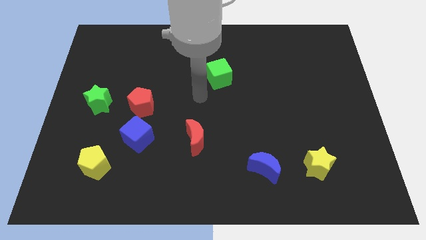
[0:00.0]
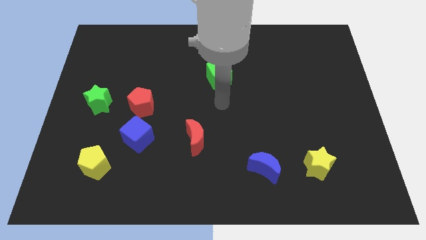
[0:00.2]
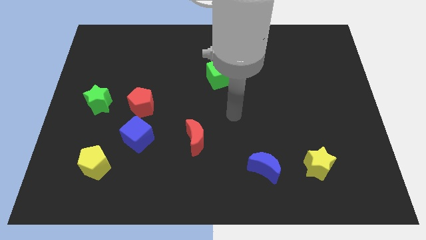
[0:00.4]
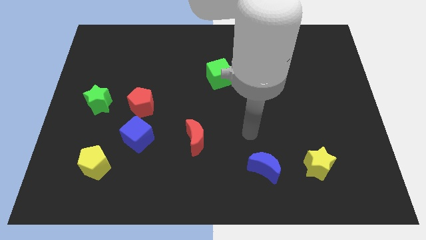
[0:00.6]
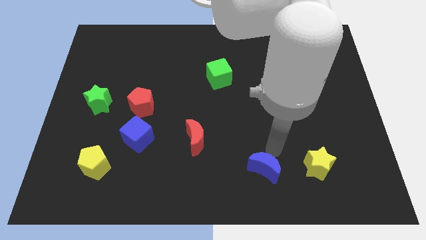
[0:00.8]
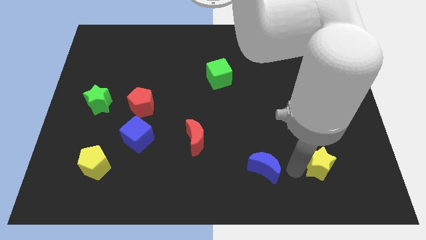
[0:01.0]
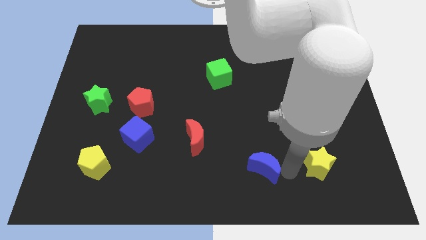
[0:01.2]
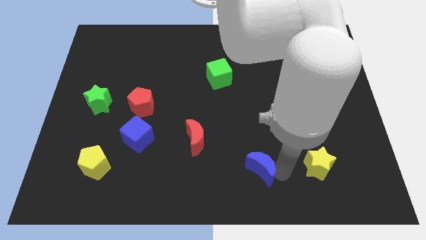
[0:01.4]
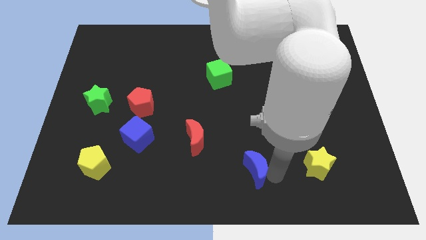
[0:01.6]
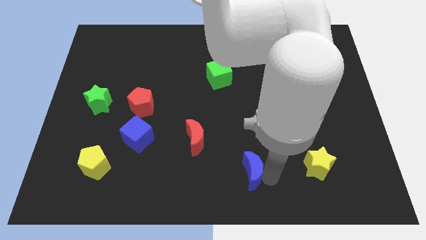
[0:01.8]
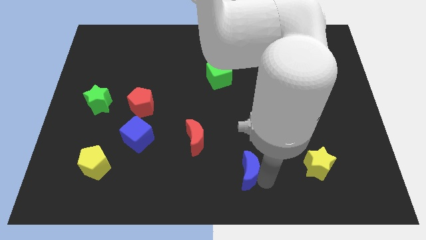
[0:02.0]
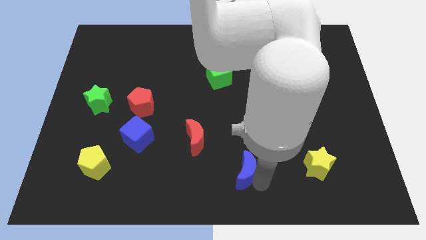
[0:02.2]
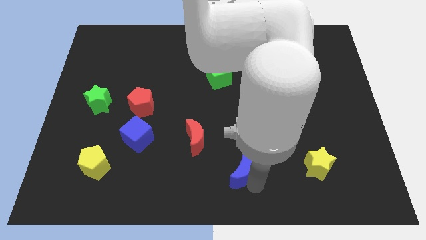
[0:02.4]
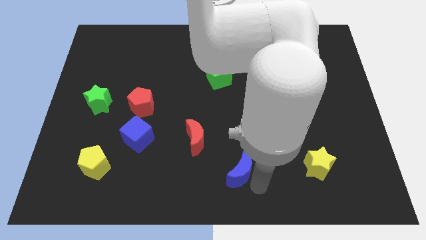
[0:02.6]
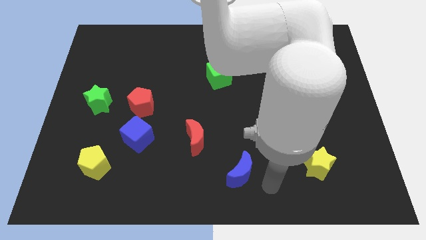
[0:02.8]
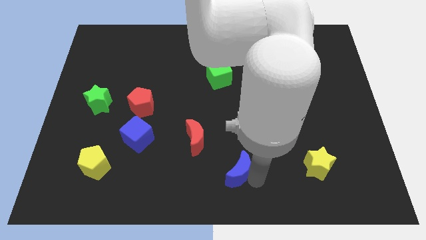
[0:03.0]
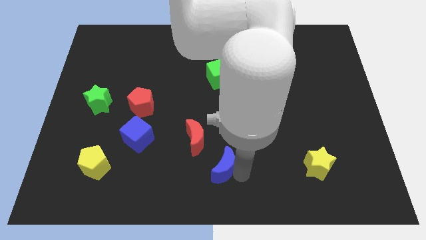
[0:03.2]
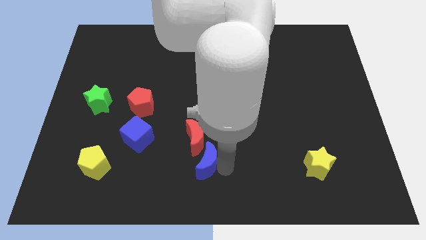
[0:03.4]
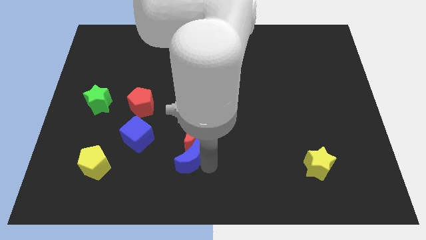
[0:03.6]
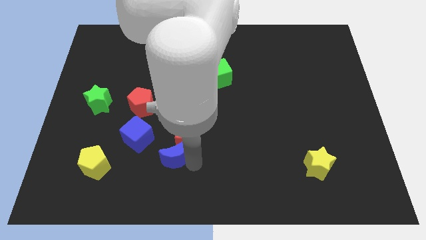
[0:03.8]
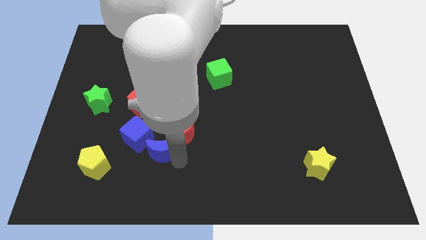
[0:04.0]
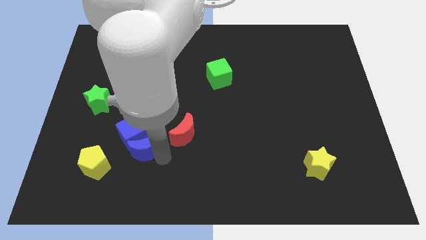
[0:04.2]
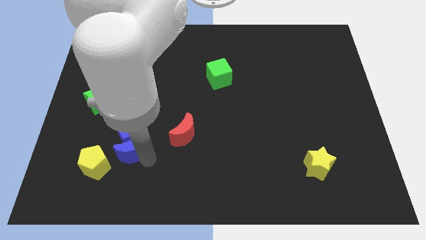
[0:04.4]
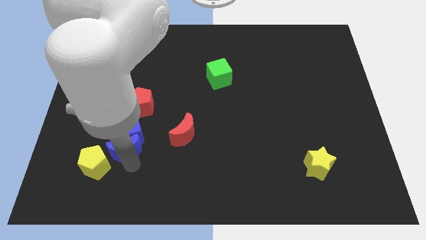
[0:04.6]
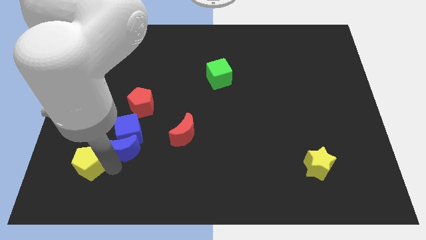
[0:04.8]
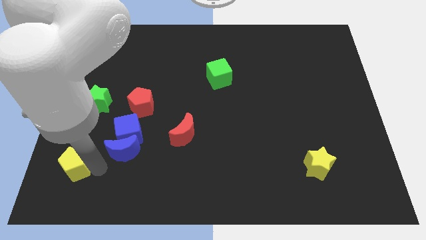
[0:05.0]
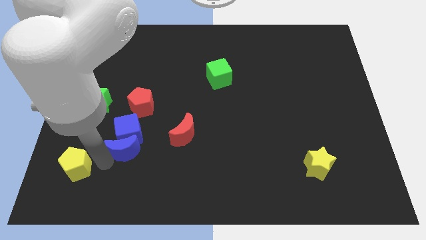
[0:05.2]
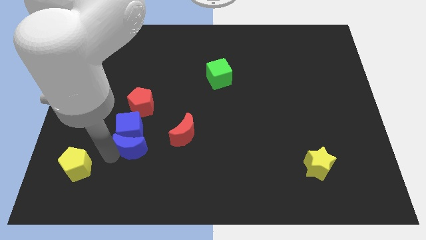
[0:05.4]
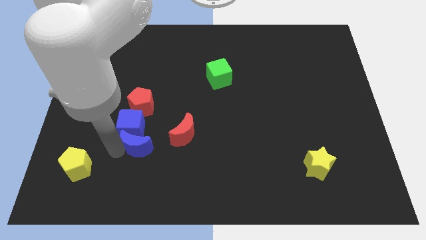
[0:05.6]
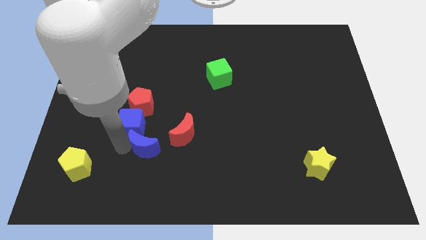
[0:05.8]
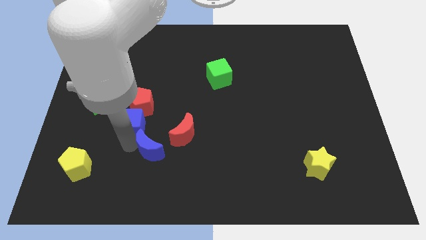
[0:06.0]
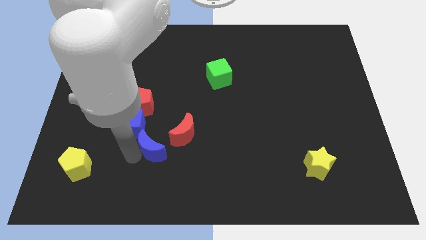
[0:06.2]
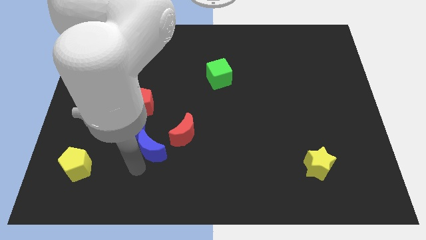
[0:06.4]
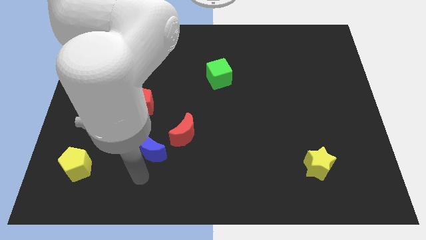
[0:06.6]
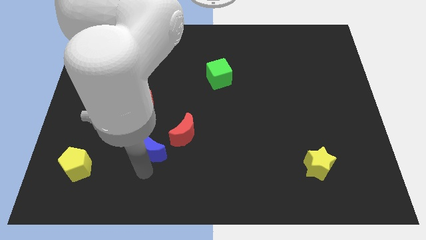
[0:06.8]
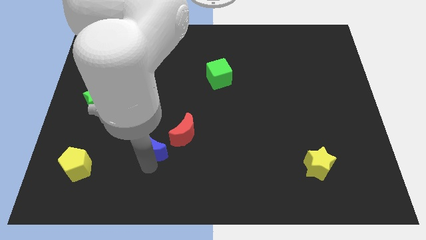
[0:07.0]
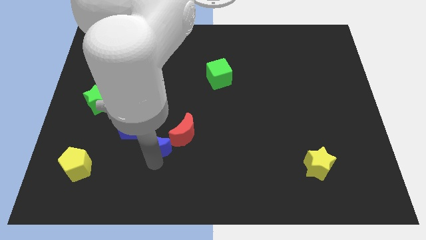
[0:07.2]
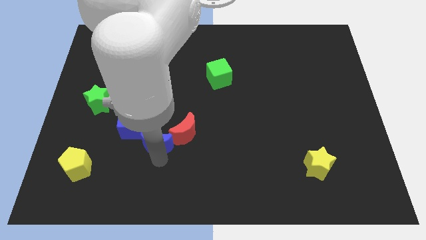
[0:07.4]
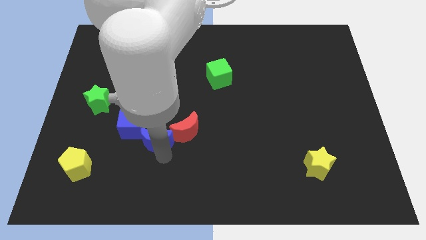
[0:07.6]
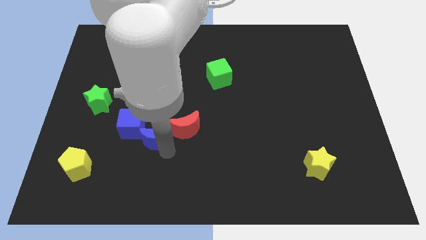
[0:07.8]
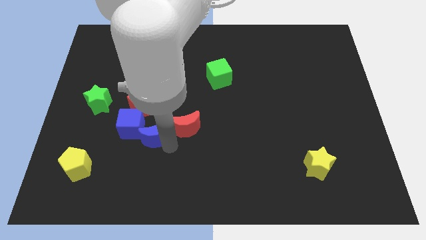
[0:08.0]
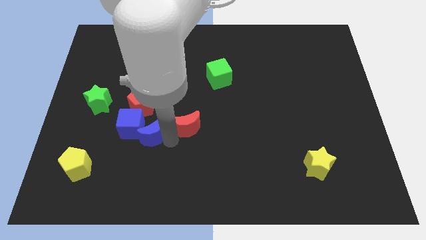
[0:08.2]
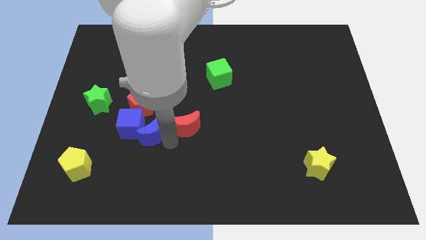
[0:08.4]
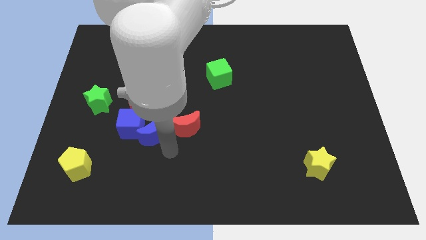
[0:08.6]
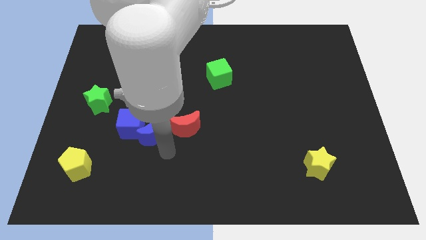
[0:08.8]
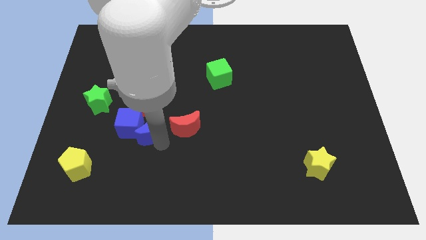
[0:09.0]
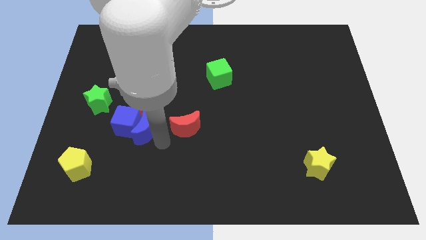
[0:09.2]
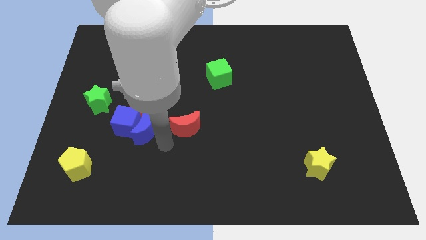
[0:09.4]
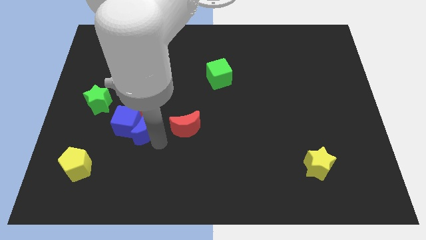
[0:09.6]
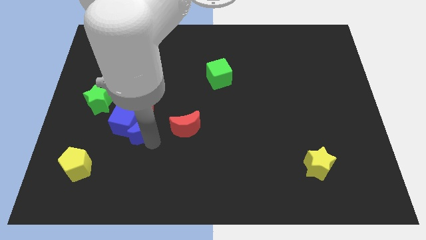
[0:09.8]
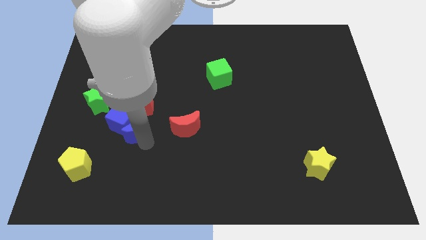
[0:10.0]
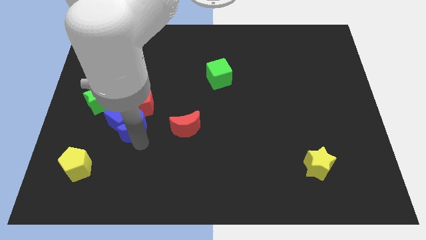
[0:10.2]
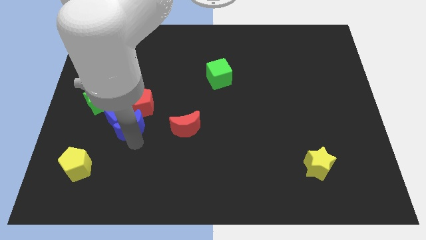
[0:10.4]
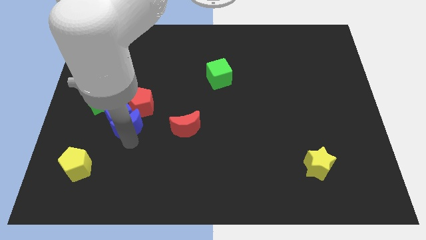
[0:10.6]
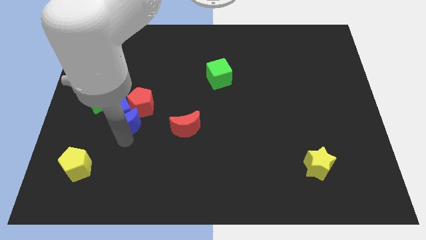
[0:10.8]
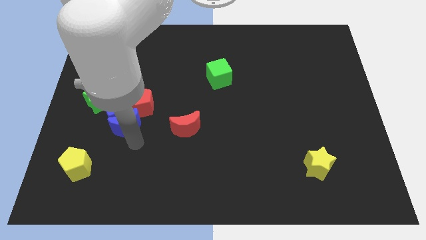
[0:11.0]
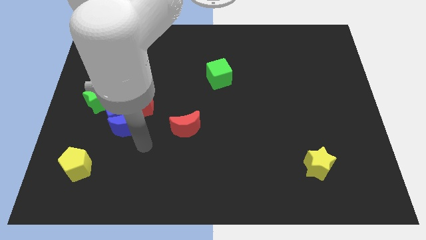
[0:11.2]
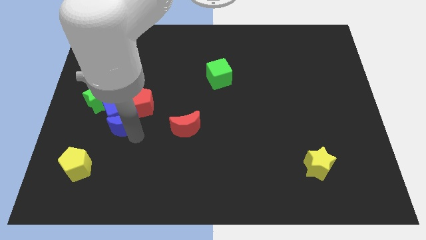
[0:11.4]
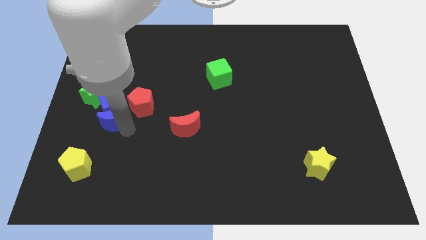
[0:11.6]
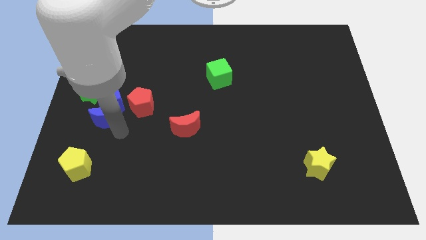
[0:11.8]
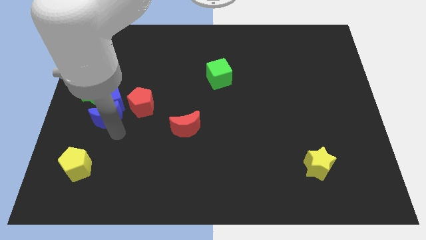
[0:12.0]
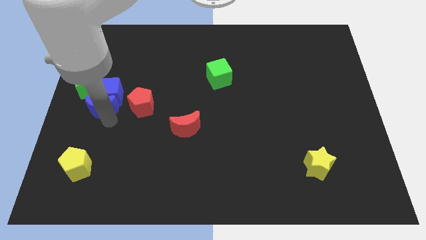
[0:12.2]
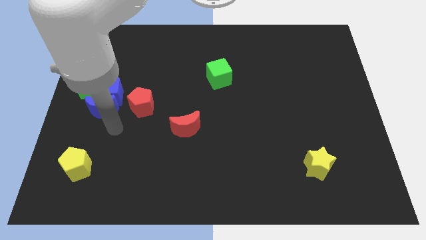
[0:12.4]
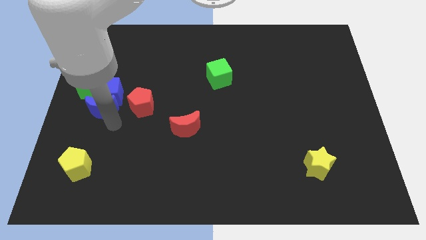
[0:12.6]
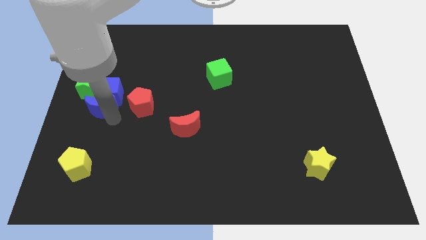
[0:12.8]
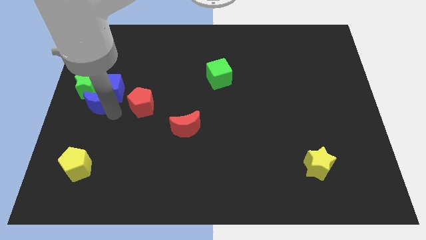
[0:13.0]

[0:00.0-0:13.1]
push the blue moon close to the green star

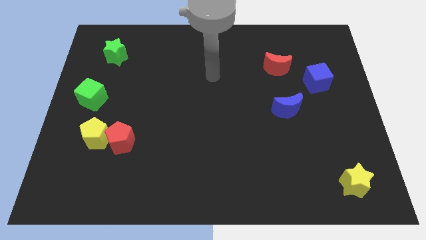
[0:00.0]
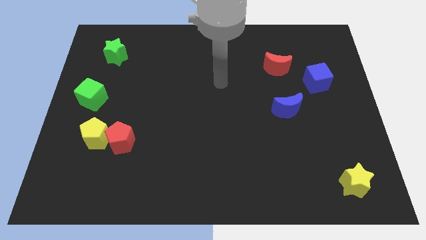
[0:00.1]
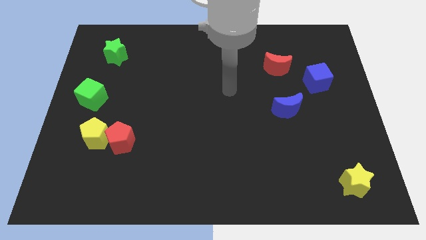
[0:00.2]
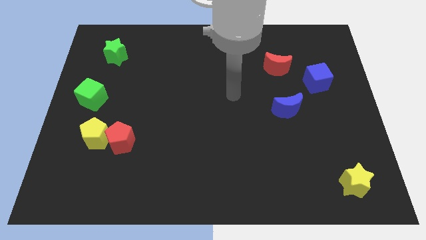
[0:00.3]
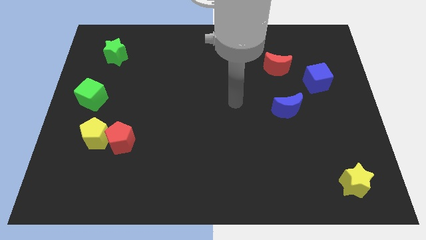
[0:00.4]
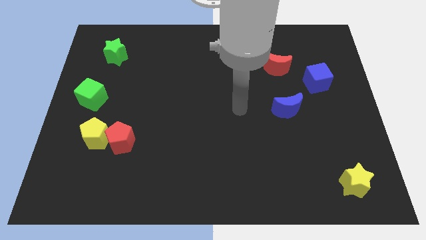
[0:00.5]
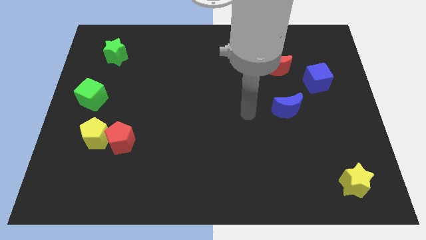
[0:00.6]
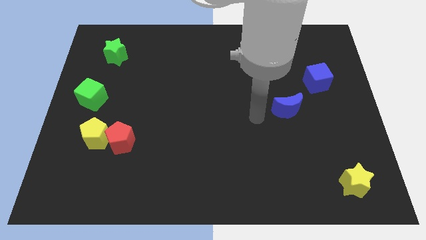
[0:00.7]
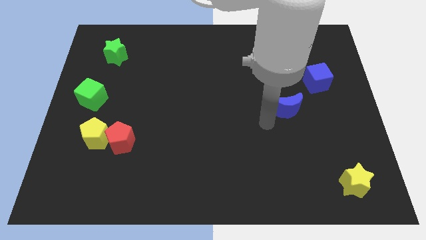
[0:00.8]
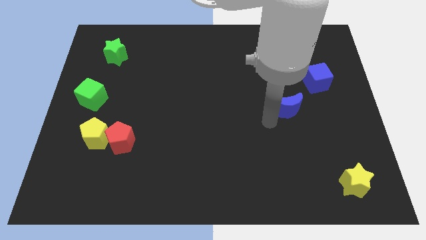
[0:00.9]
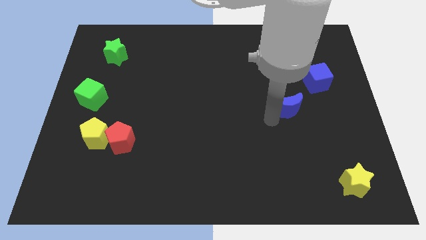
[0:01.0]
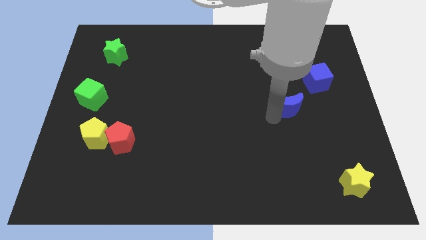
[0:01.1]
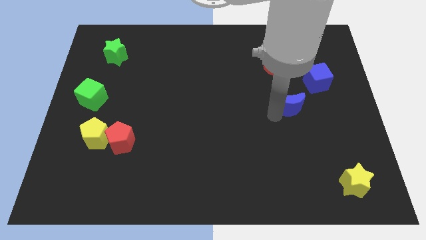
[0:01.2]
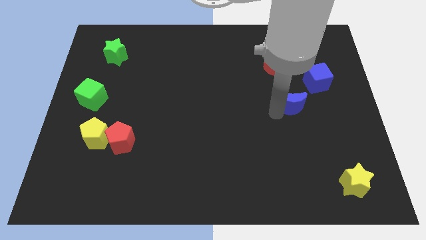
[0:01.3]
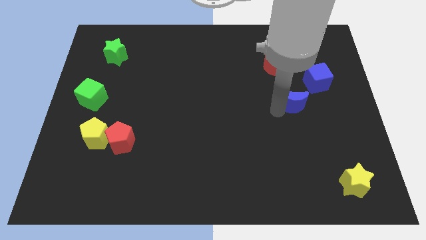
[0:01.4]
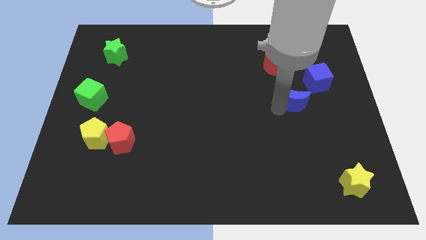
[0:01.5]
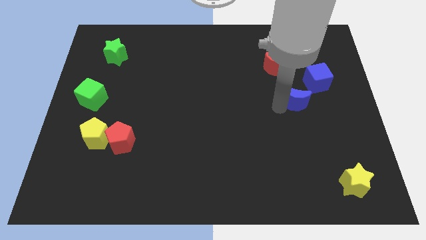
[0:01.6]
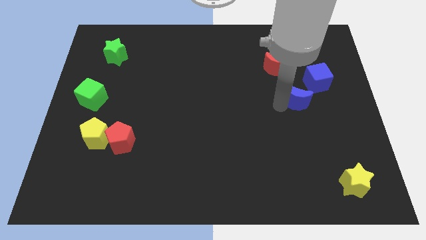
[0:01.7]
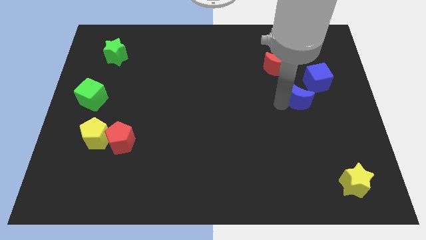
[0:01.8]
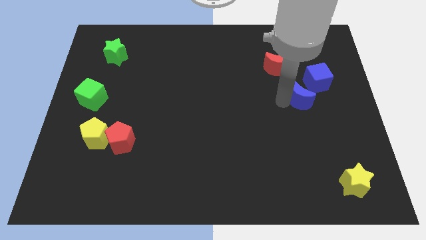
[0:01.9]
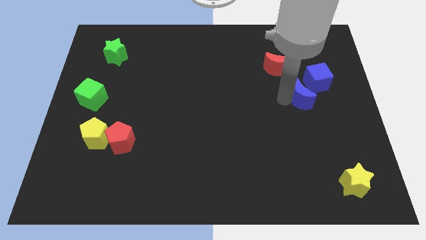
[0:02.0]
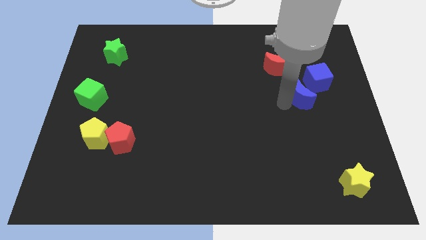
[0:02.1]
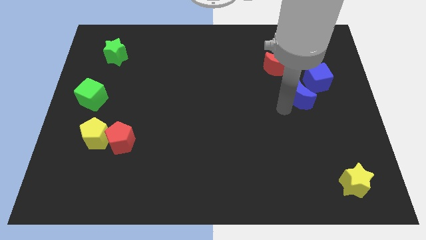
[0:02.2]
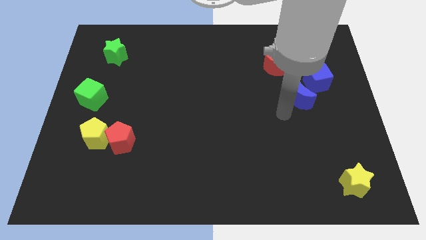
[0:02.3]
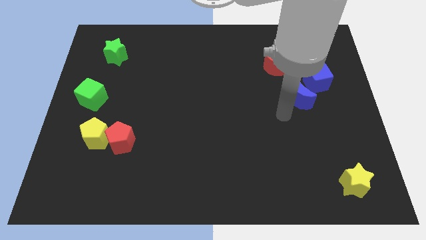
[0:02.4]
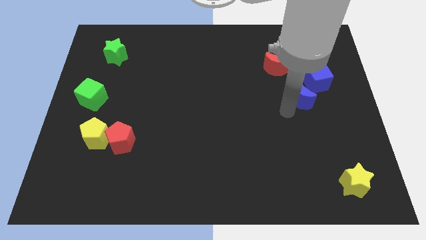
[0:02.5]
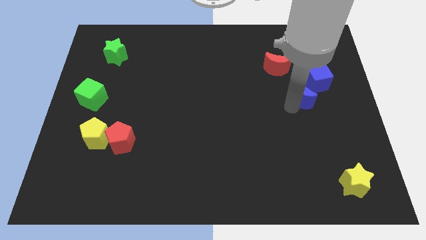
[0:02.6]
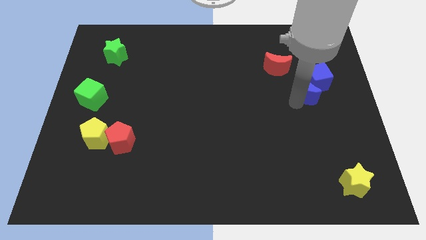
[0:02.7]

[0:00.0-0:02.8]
slide the blue moon close to the blue cube
